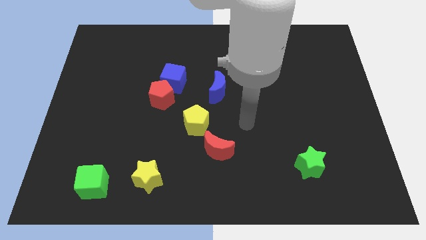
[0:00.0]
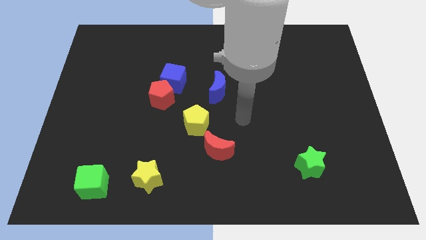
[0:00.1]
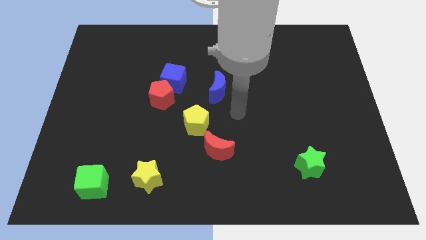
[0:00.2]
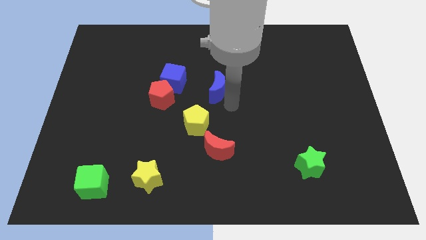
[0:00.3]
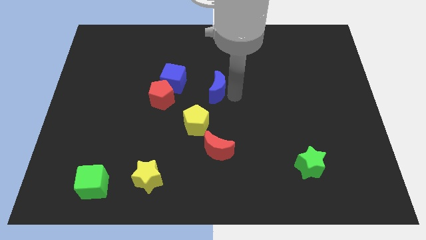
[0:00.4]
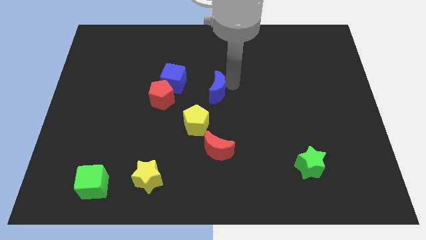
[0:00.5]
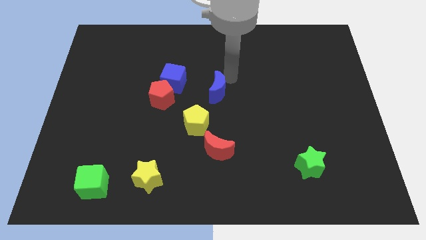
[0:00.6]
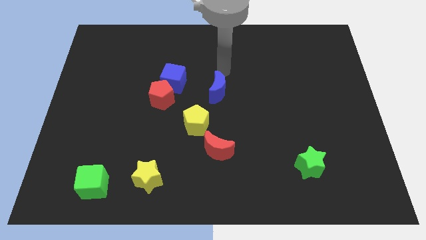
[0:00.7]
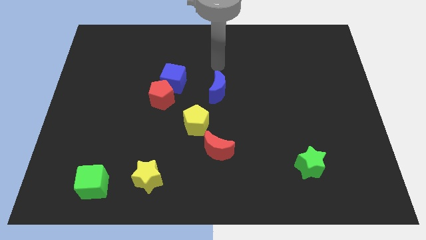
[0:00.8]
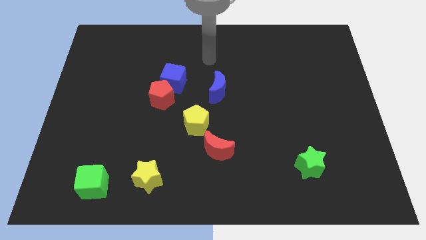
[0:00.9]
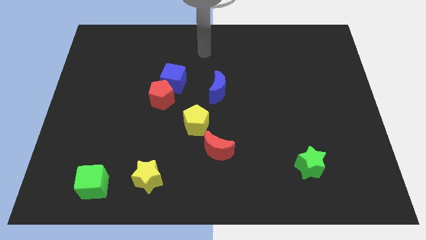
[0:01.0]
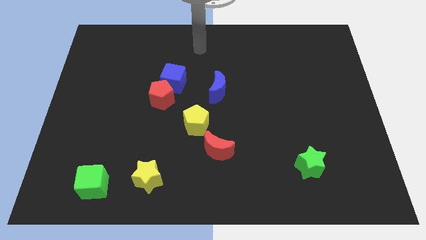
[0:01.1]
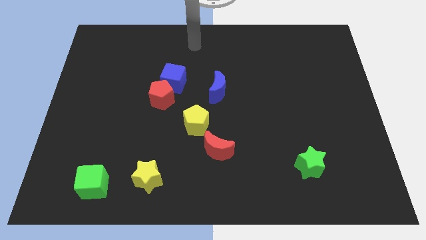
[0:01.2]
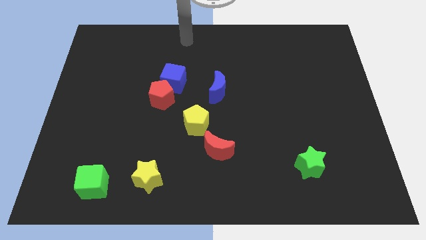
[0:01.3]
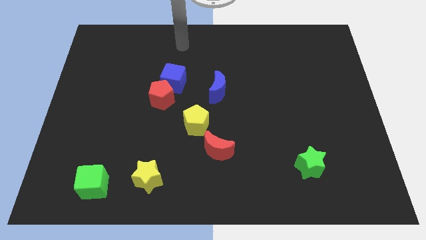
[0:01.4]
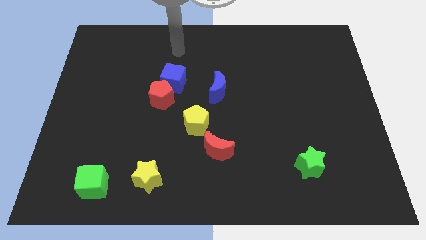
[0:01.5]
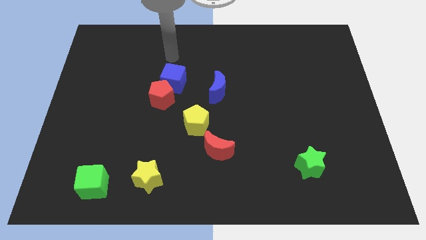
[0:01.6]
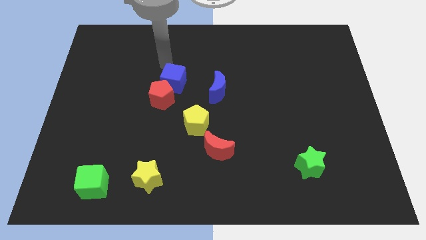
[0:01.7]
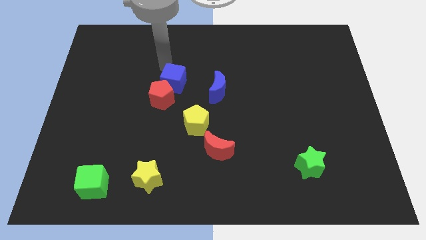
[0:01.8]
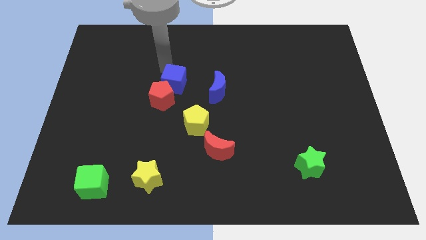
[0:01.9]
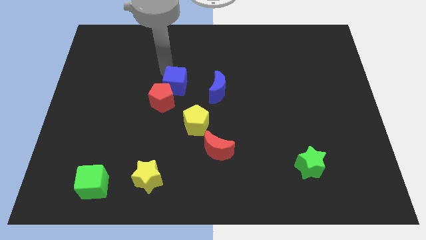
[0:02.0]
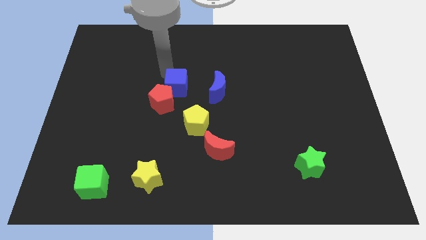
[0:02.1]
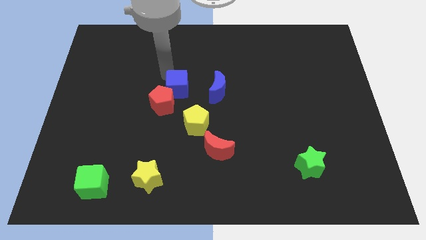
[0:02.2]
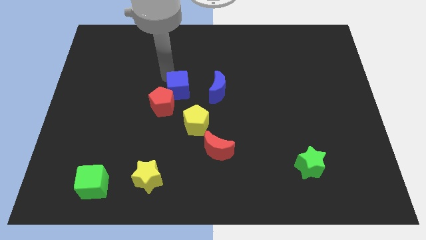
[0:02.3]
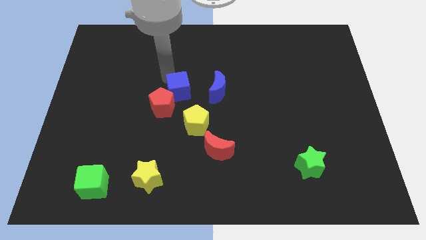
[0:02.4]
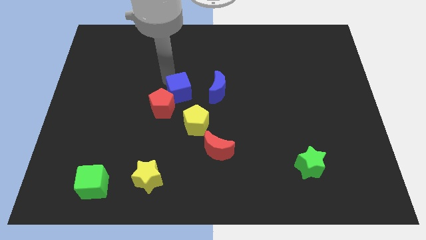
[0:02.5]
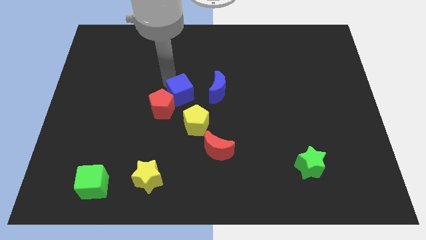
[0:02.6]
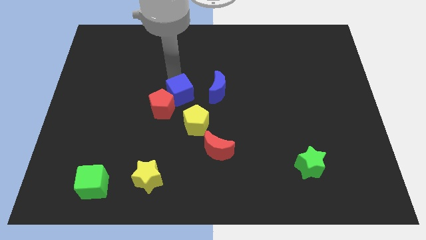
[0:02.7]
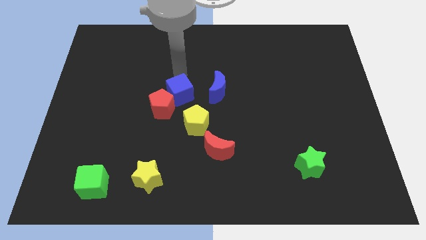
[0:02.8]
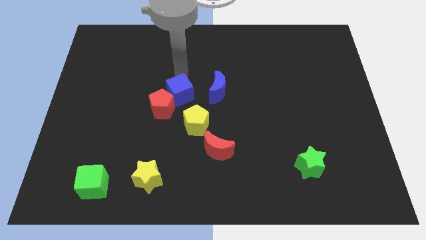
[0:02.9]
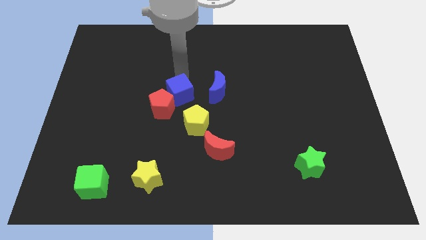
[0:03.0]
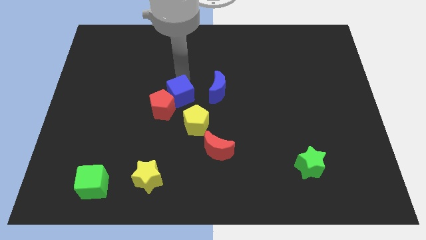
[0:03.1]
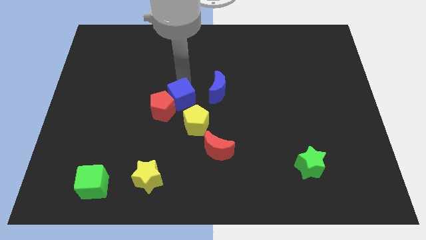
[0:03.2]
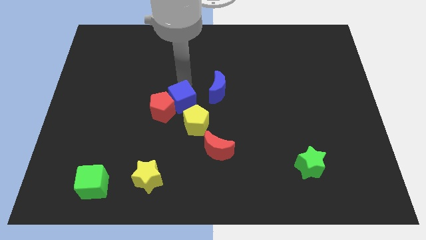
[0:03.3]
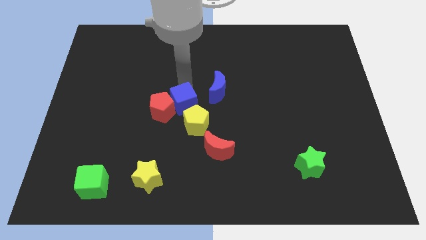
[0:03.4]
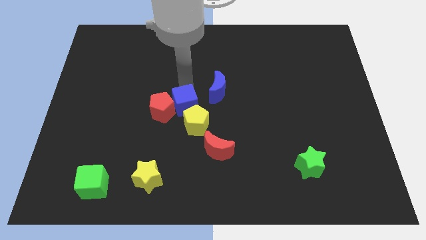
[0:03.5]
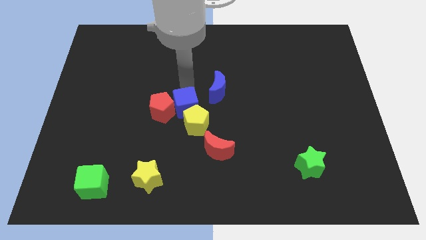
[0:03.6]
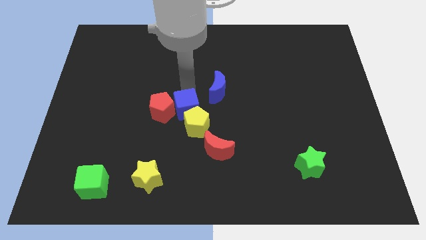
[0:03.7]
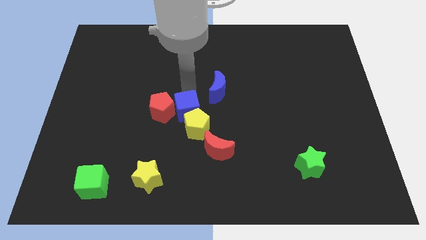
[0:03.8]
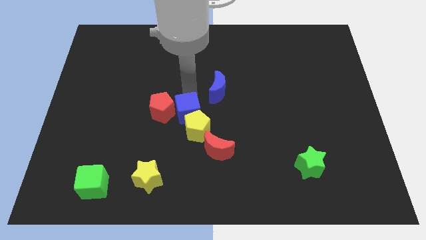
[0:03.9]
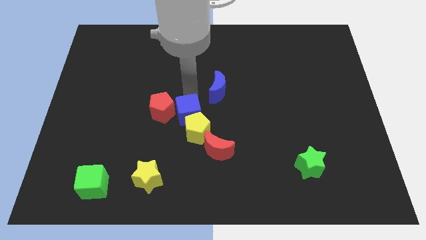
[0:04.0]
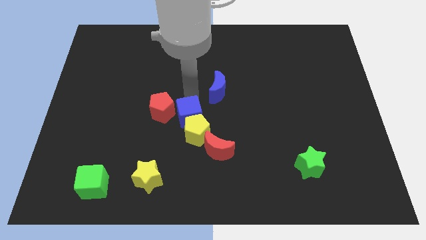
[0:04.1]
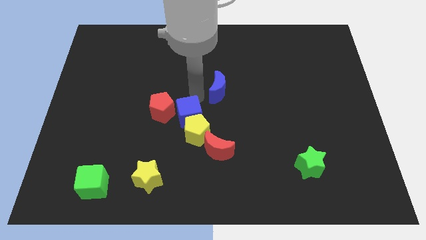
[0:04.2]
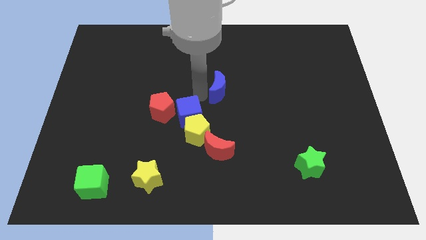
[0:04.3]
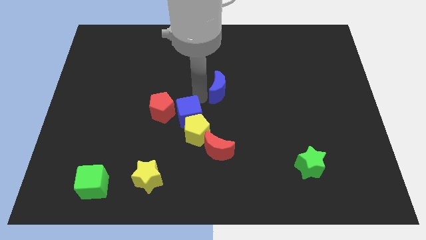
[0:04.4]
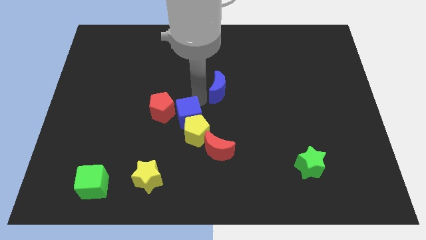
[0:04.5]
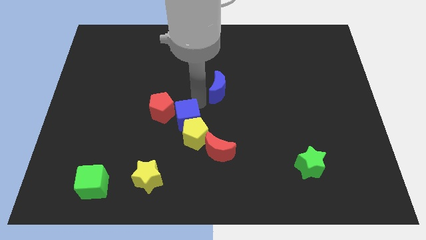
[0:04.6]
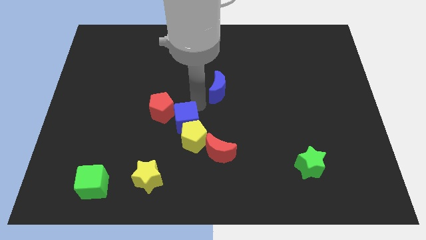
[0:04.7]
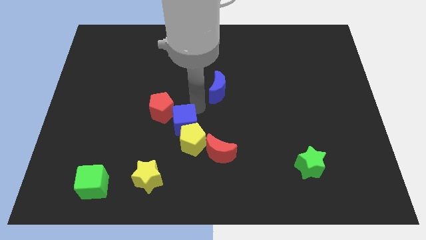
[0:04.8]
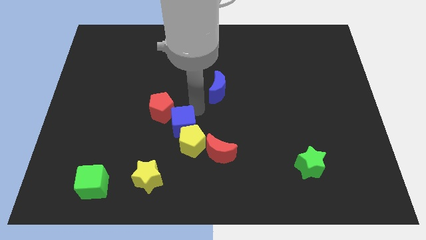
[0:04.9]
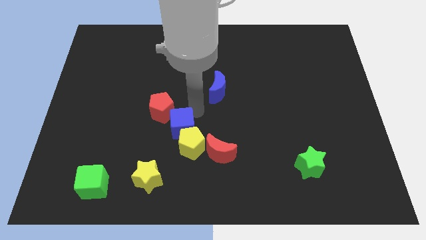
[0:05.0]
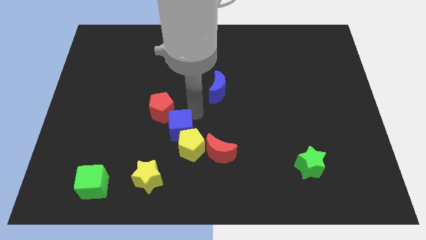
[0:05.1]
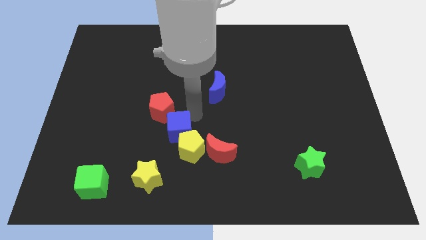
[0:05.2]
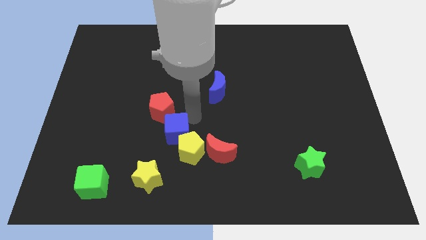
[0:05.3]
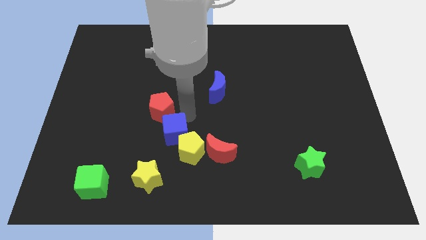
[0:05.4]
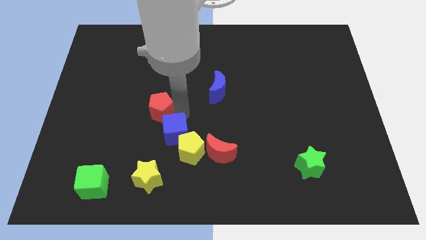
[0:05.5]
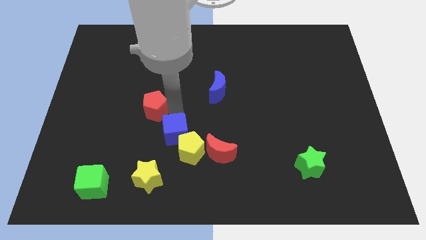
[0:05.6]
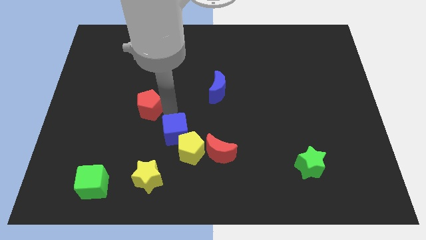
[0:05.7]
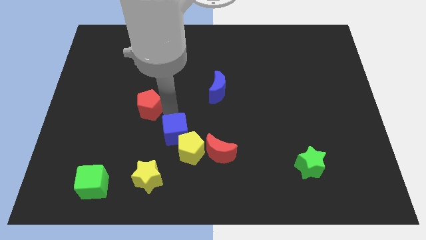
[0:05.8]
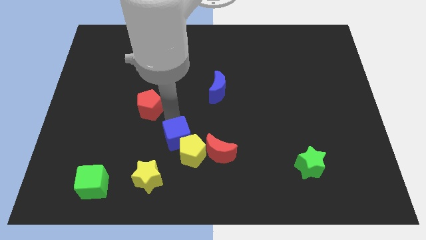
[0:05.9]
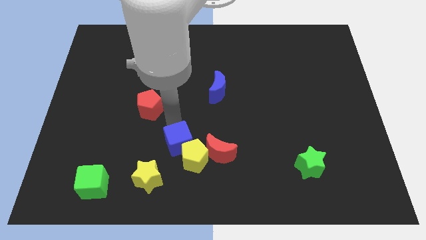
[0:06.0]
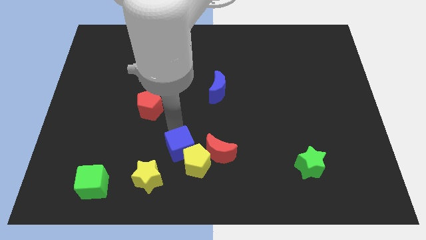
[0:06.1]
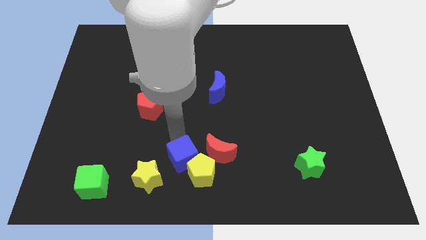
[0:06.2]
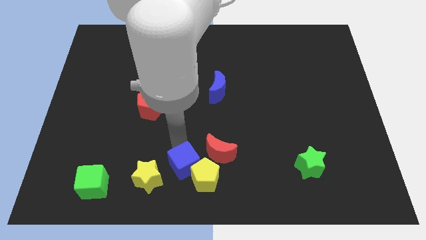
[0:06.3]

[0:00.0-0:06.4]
put the blue cube to the bottom
